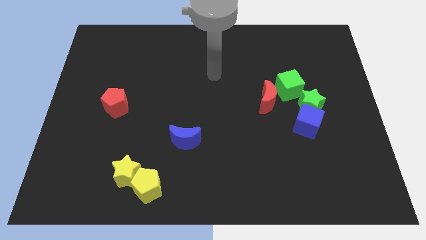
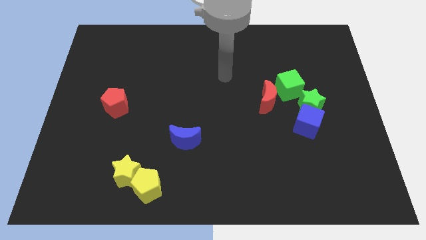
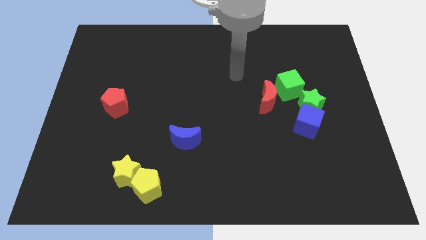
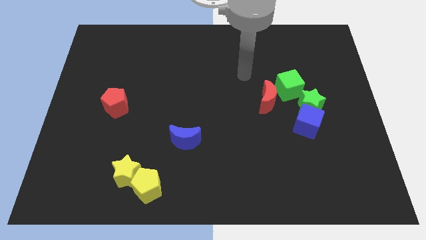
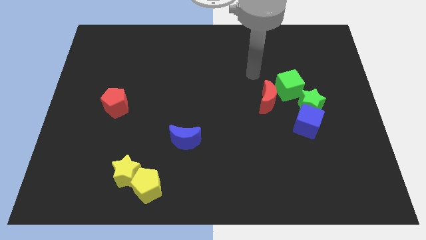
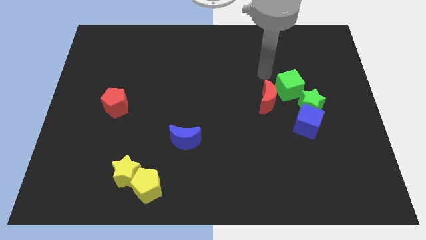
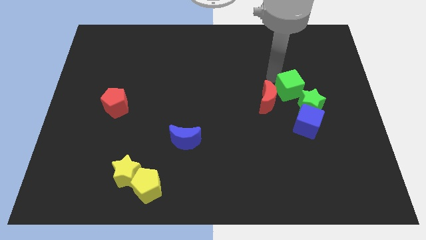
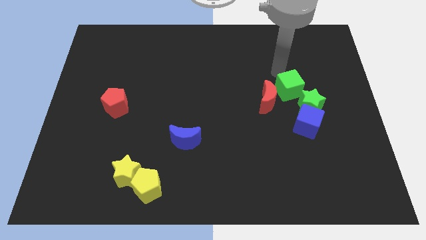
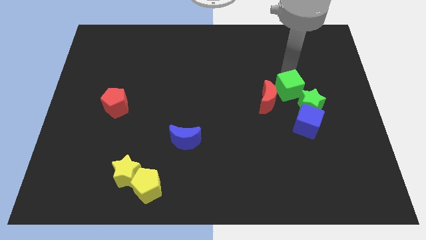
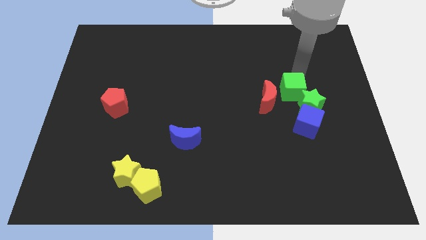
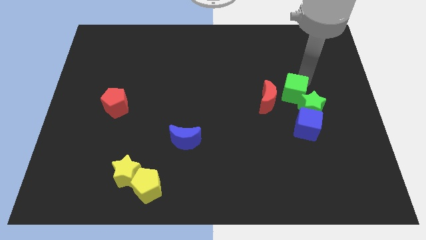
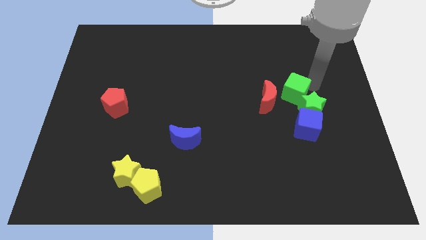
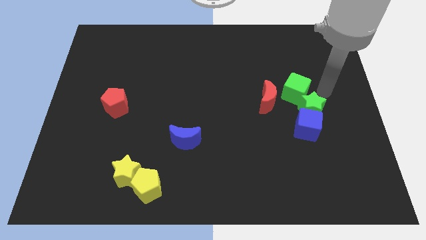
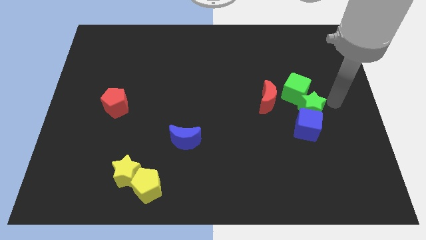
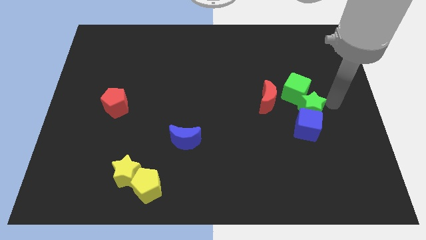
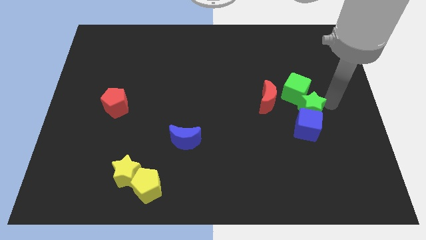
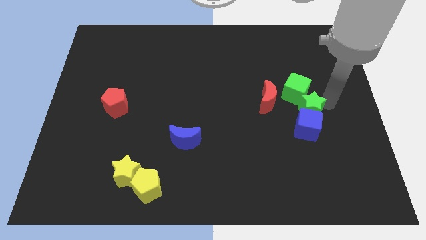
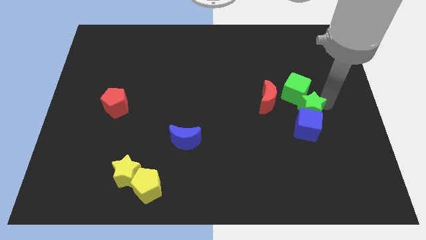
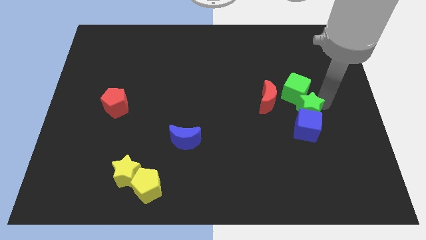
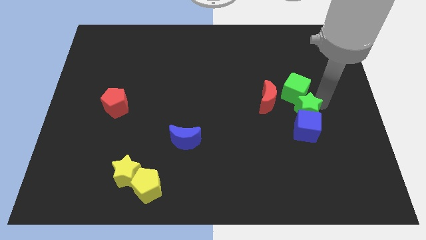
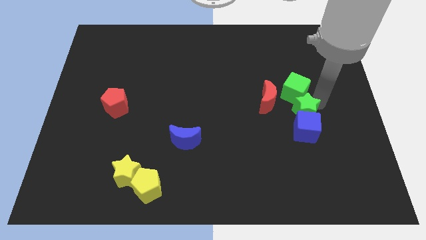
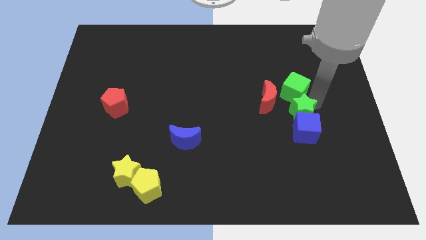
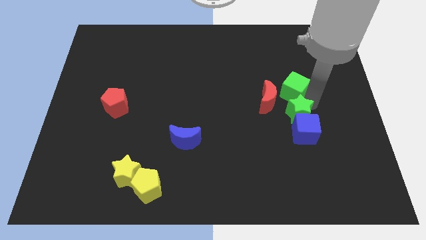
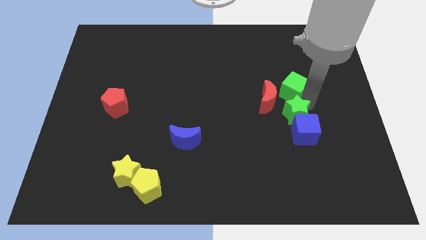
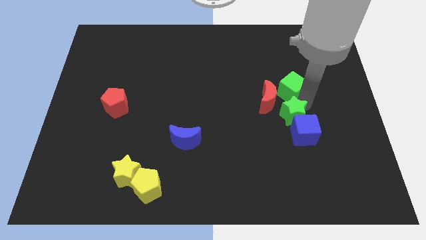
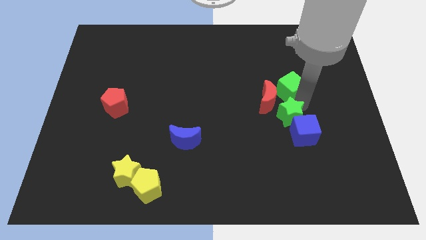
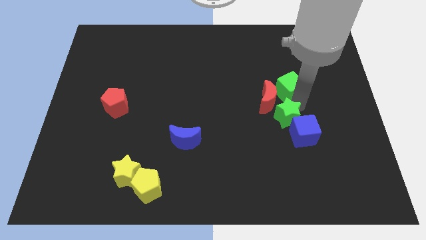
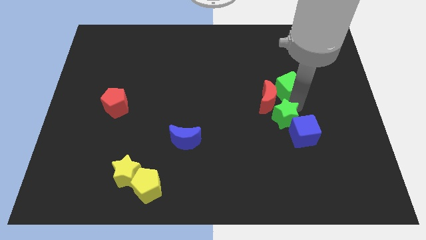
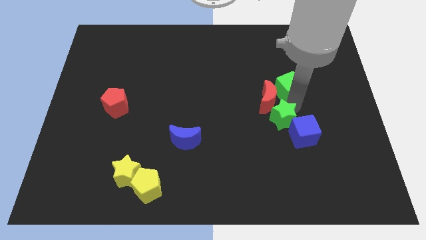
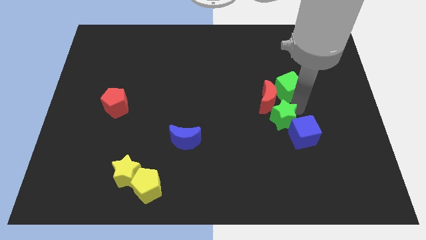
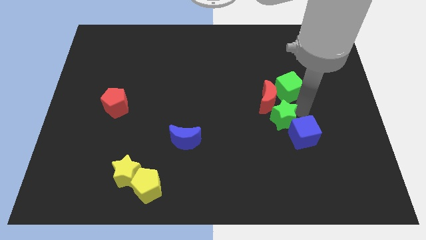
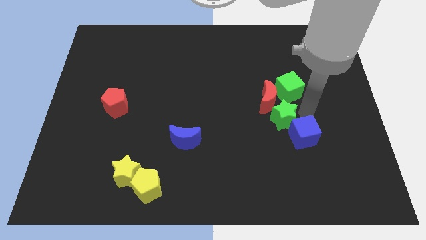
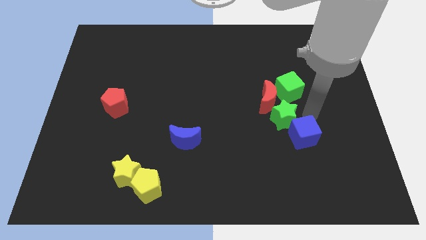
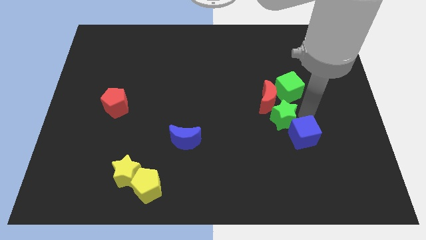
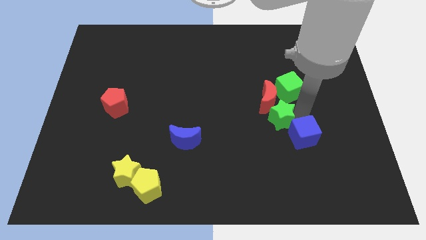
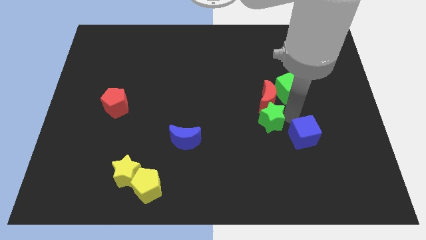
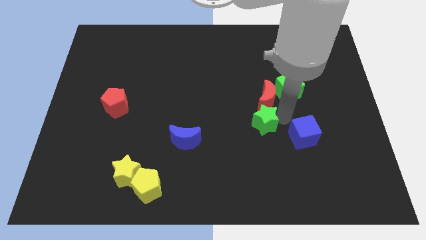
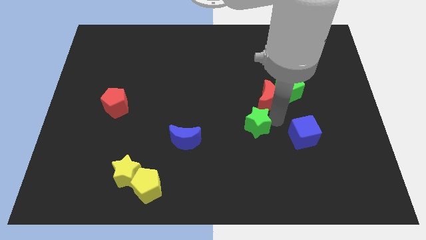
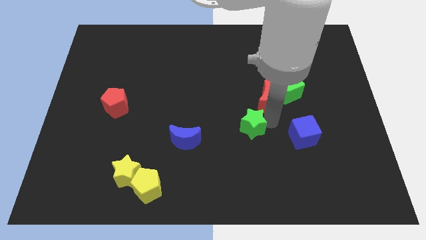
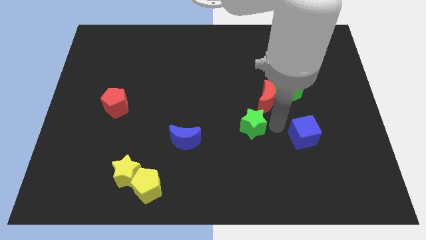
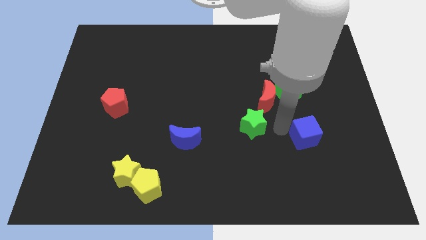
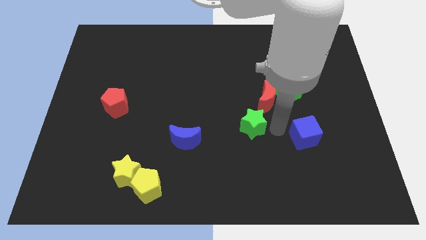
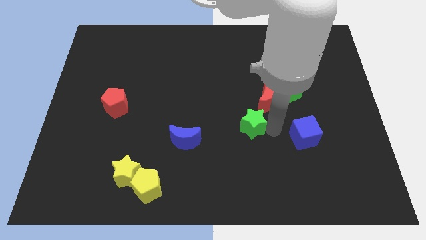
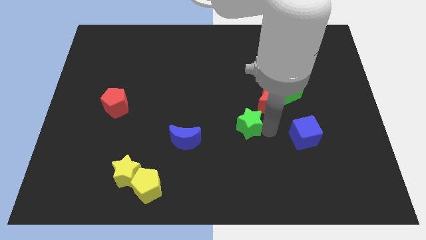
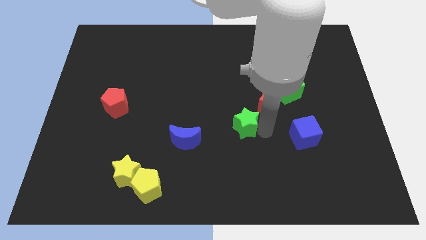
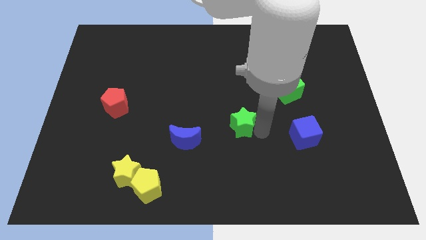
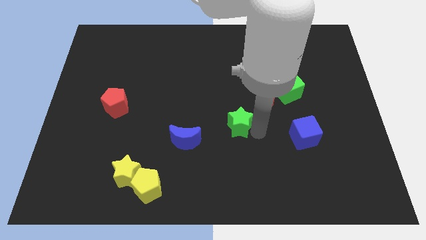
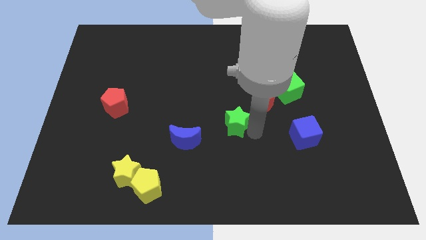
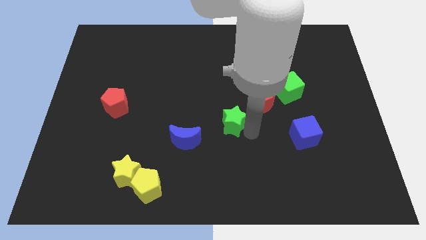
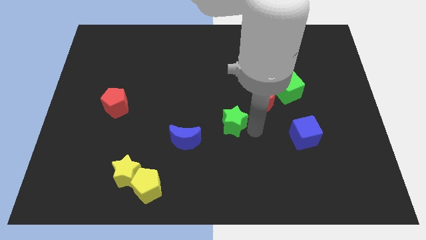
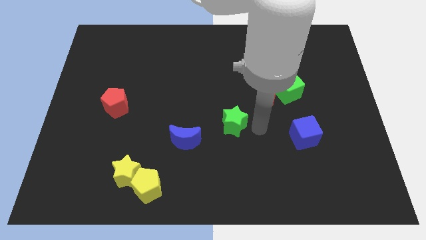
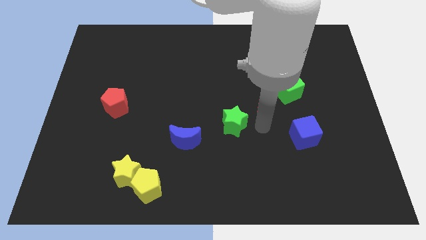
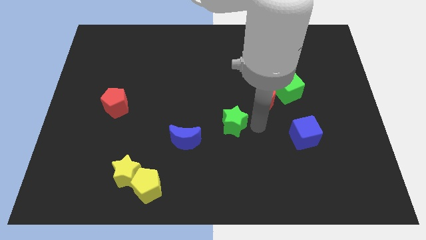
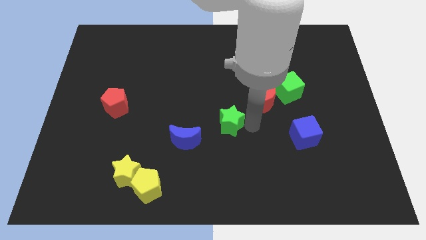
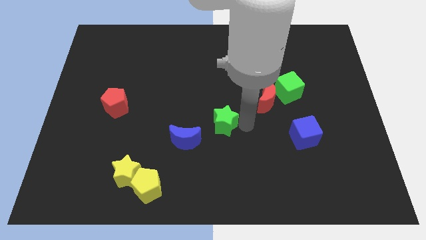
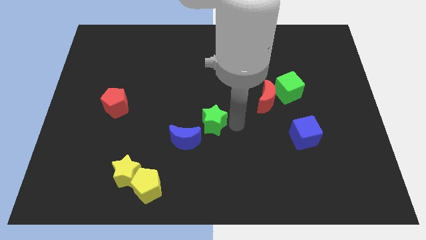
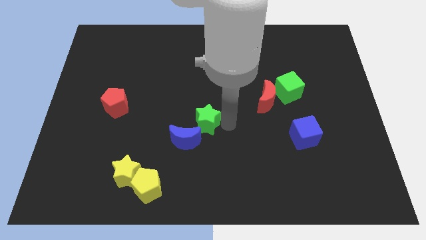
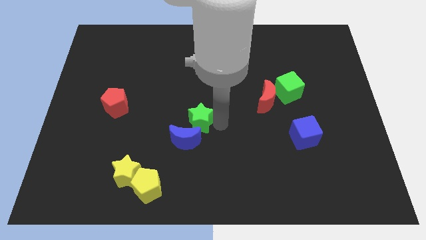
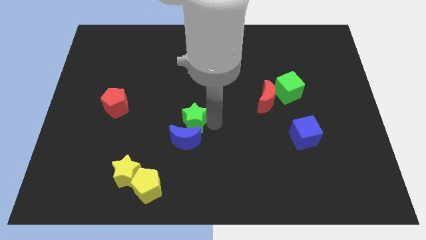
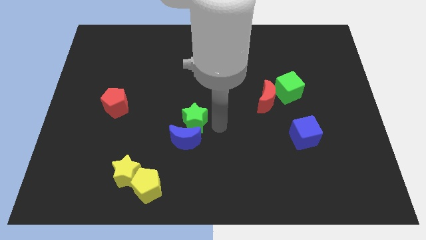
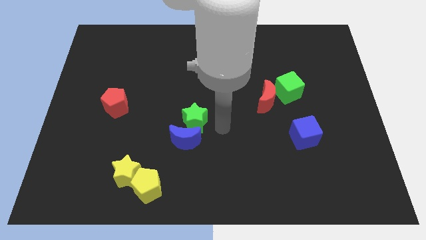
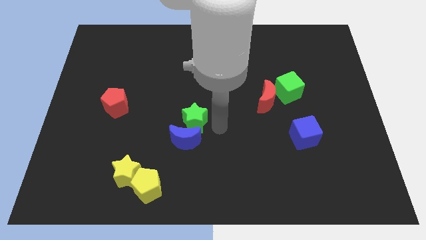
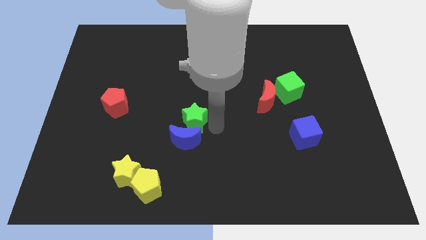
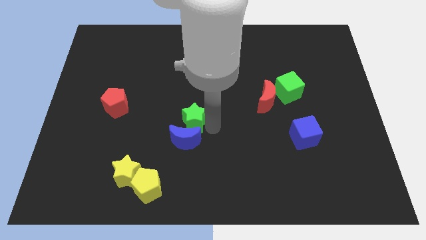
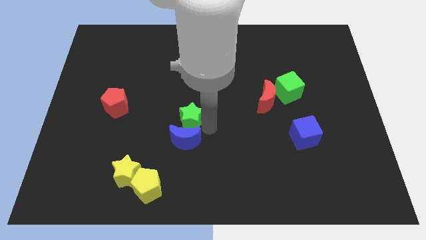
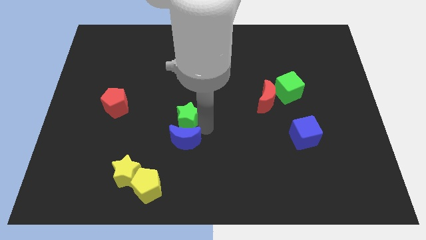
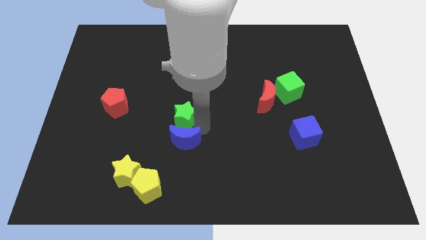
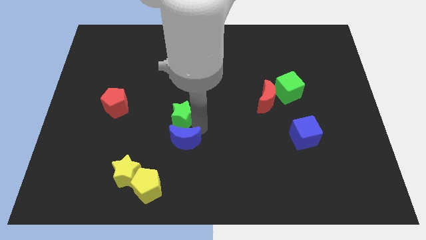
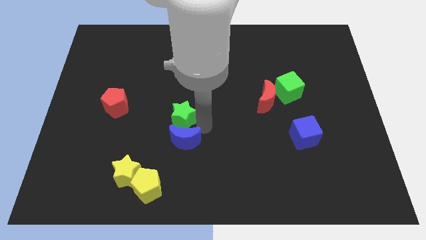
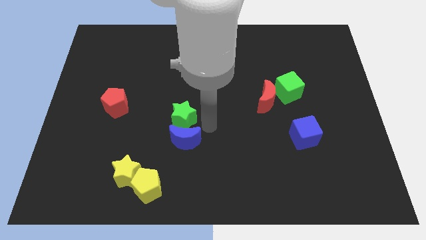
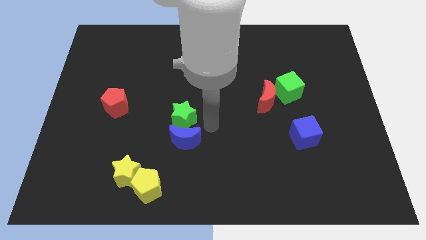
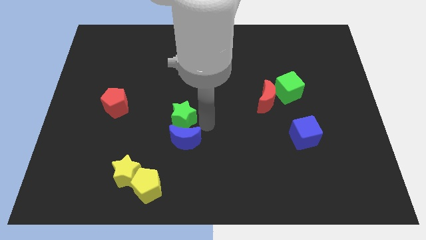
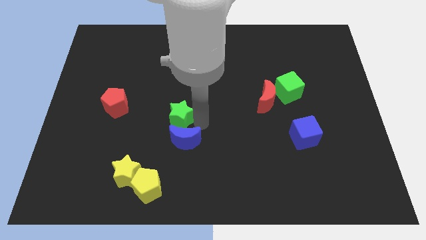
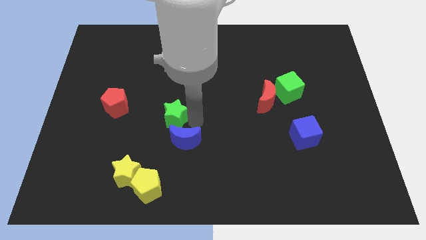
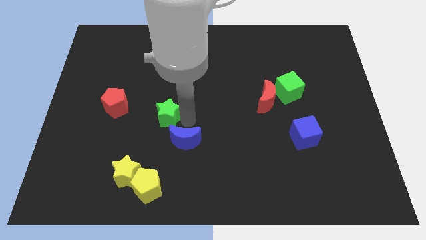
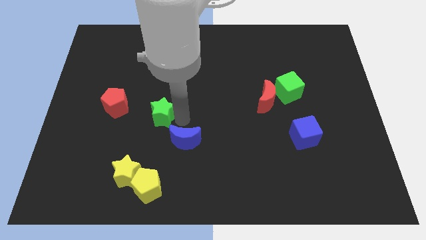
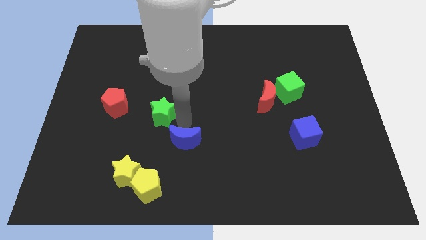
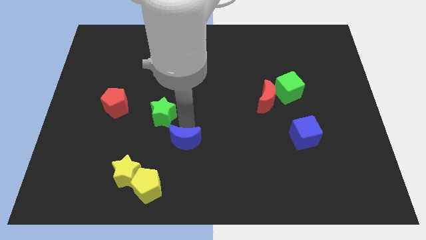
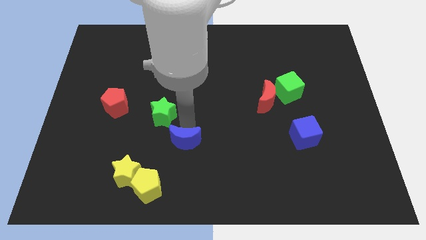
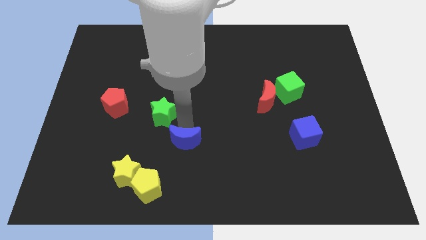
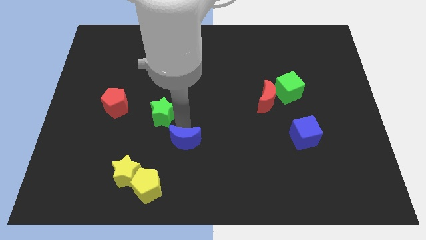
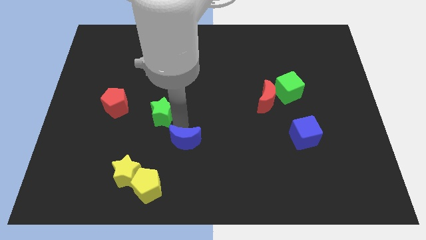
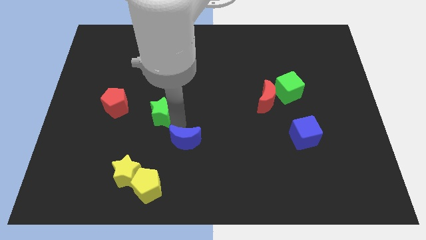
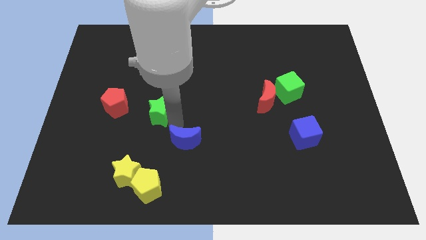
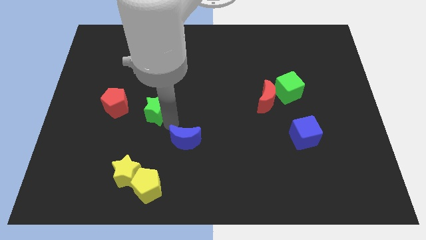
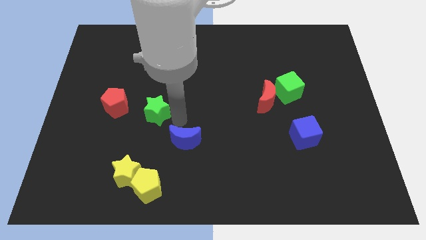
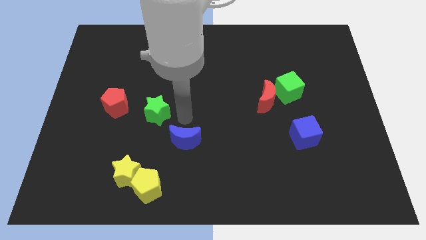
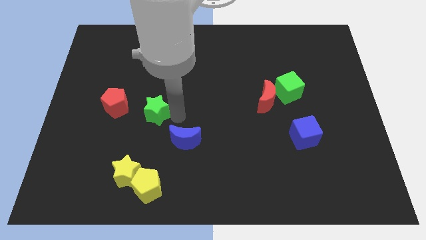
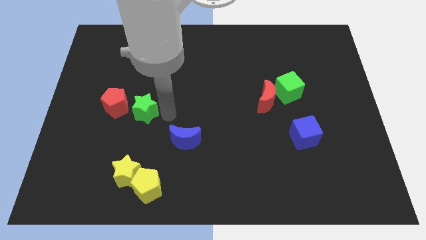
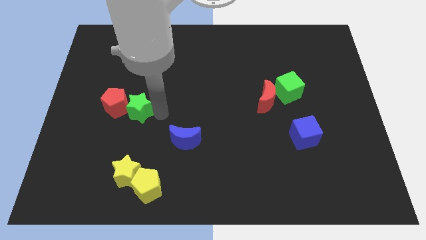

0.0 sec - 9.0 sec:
put the green star next to the red pentagon
